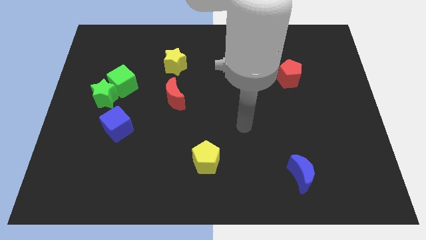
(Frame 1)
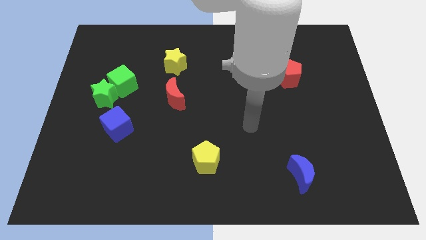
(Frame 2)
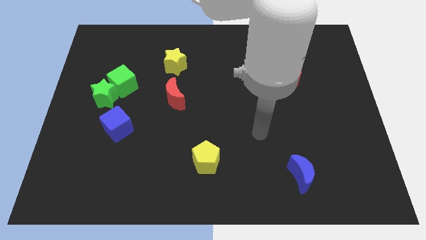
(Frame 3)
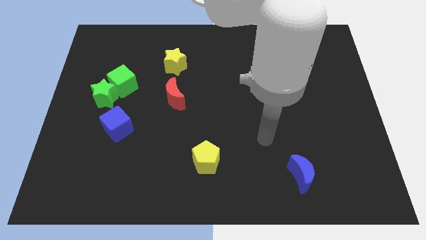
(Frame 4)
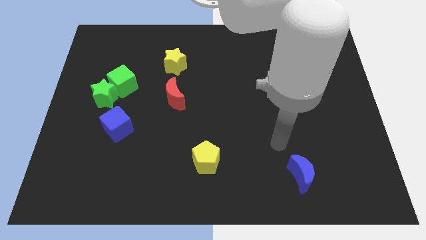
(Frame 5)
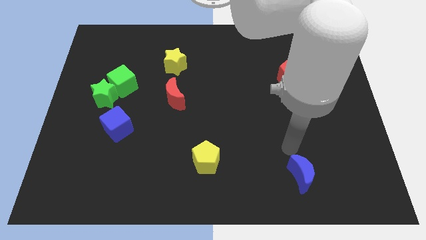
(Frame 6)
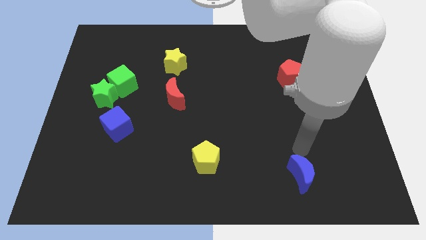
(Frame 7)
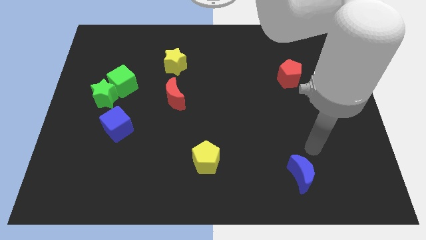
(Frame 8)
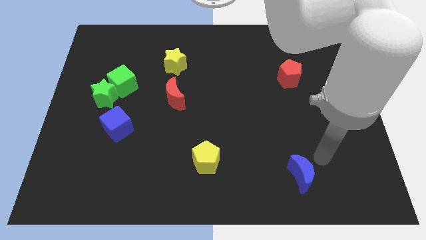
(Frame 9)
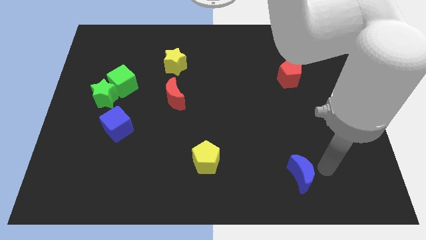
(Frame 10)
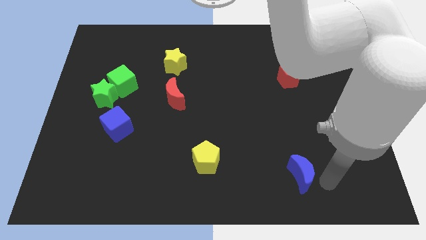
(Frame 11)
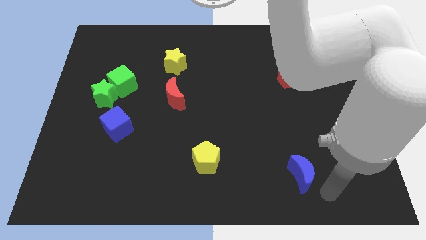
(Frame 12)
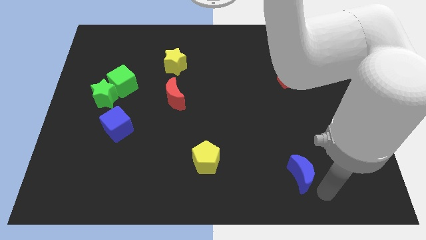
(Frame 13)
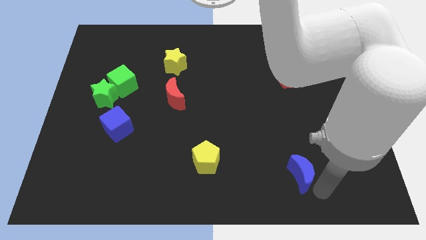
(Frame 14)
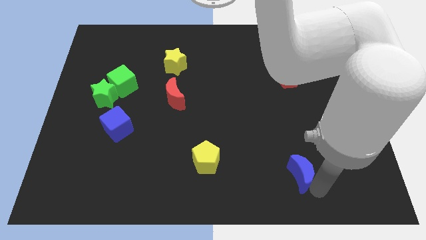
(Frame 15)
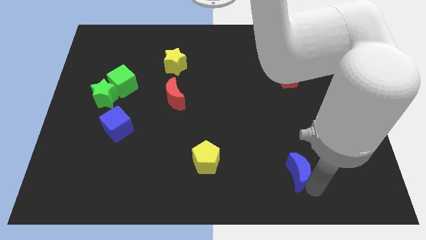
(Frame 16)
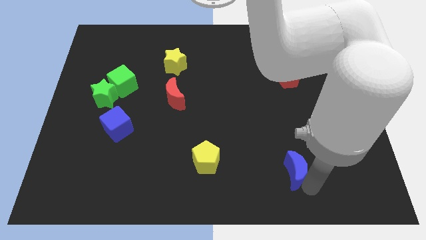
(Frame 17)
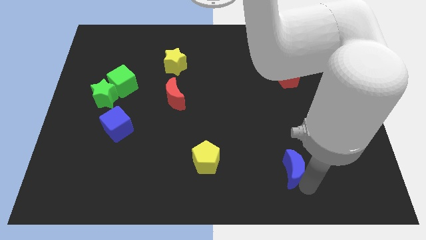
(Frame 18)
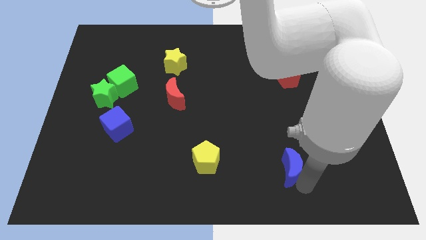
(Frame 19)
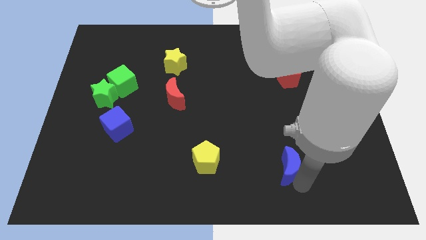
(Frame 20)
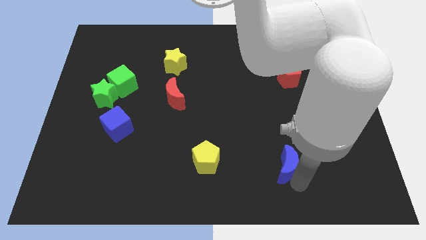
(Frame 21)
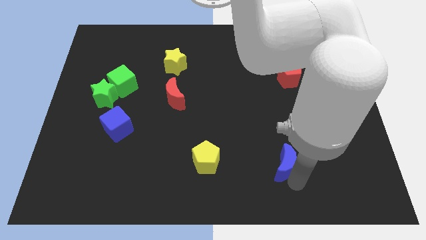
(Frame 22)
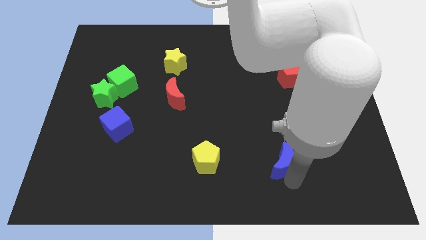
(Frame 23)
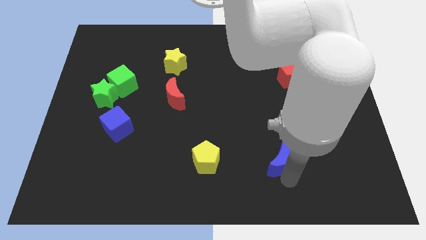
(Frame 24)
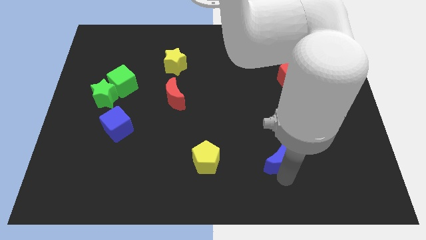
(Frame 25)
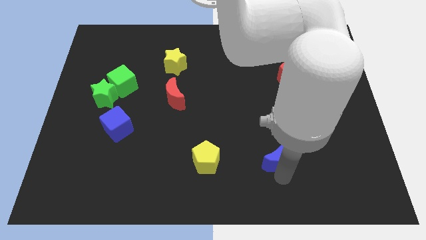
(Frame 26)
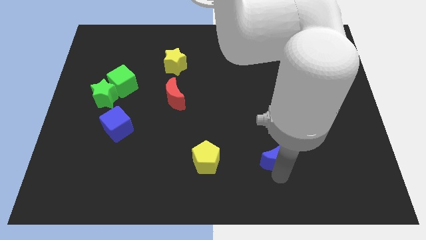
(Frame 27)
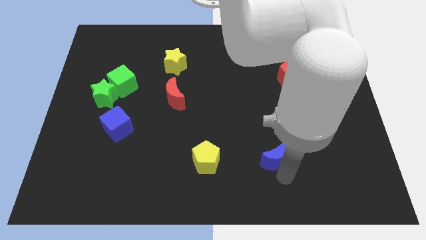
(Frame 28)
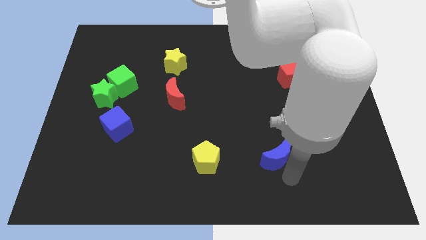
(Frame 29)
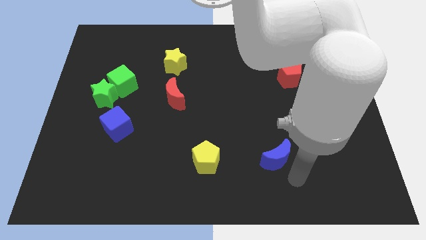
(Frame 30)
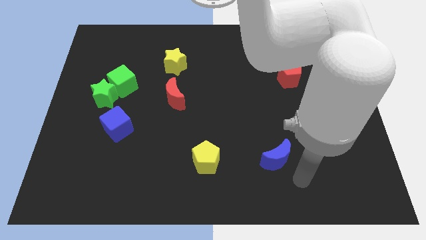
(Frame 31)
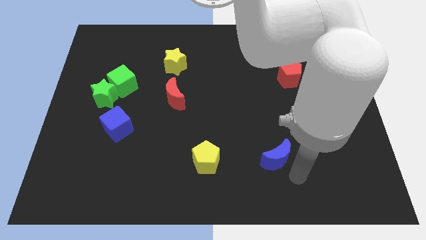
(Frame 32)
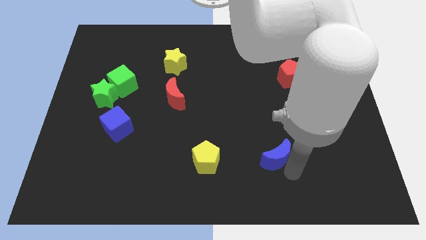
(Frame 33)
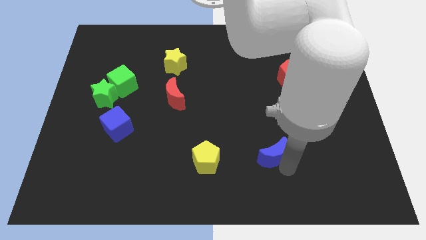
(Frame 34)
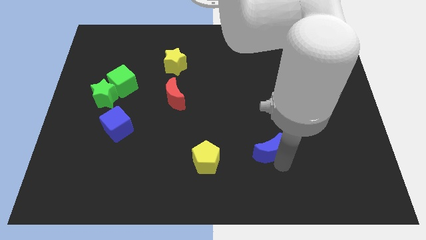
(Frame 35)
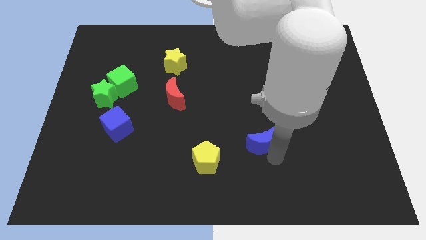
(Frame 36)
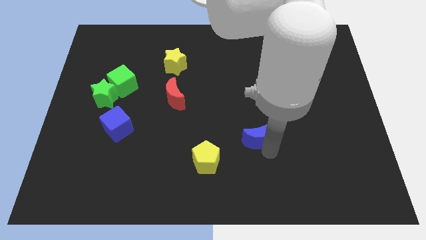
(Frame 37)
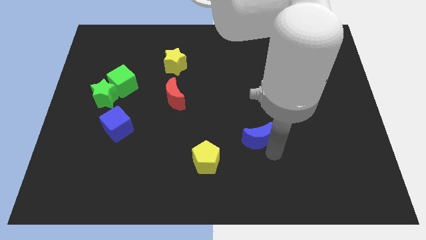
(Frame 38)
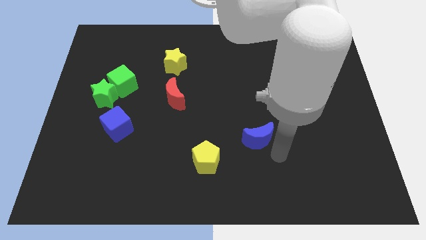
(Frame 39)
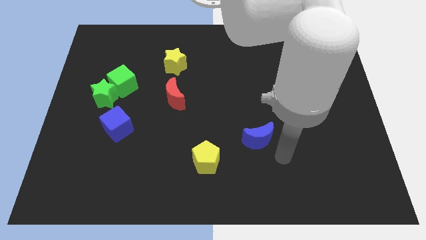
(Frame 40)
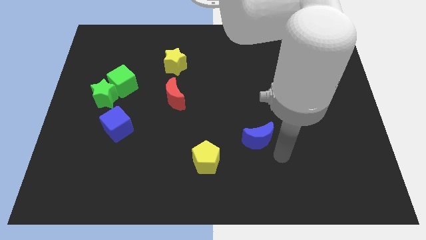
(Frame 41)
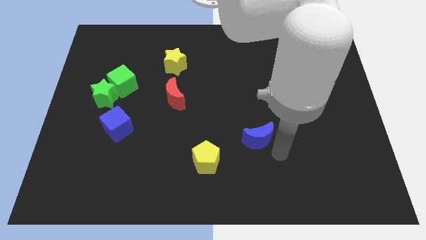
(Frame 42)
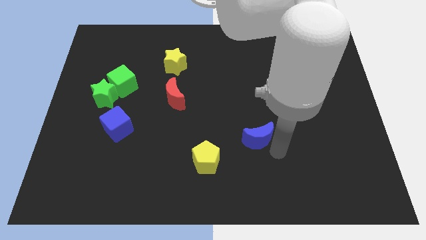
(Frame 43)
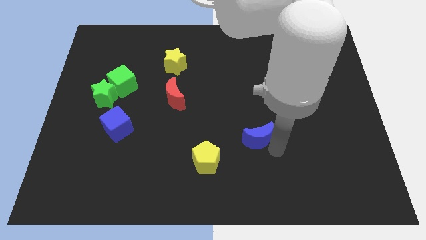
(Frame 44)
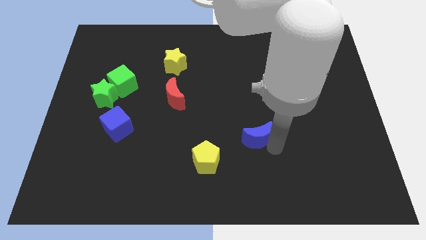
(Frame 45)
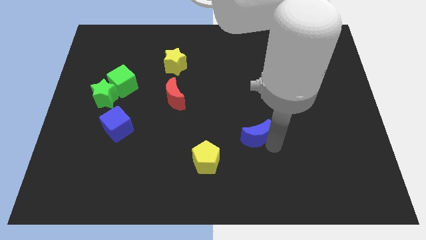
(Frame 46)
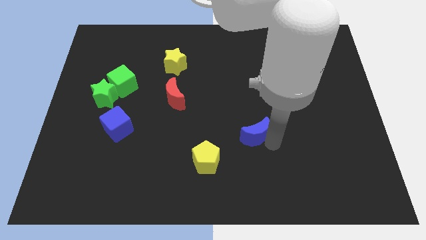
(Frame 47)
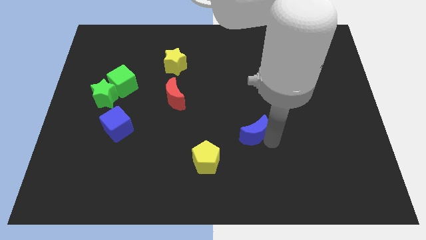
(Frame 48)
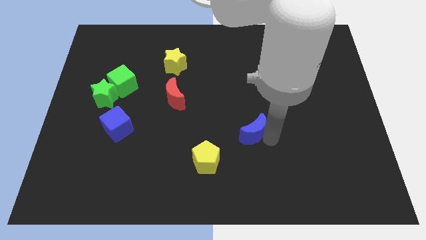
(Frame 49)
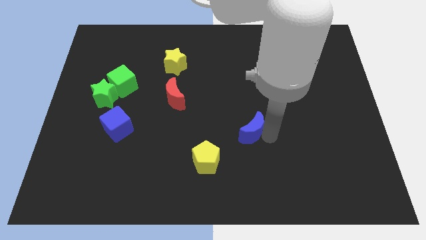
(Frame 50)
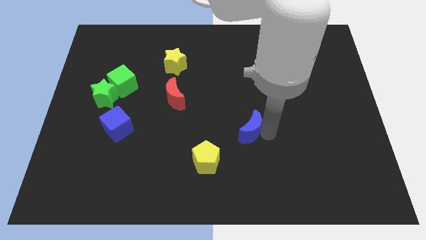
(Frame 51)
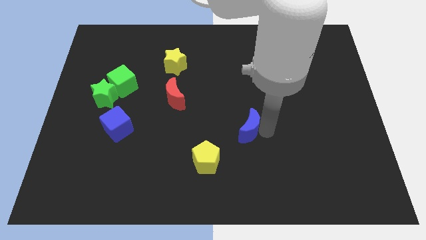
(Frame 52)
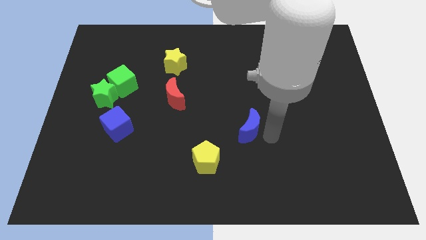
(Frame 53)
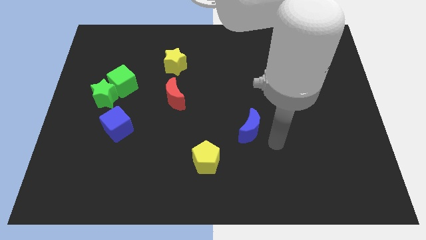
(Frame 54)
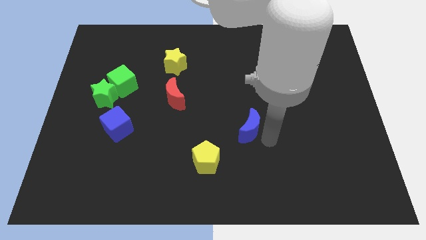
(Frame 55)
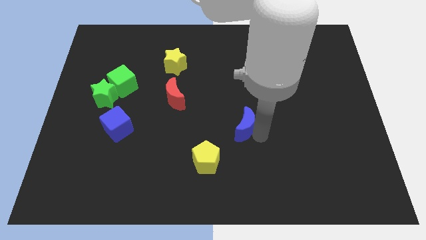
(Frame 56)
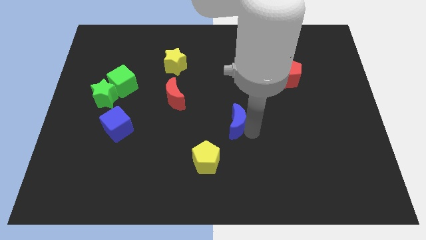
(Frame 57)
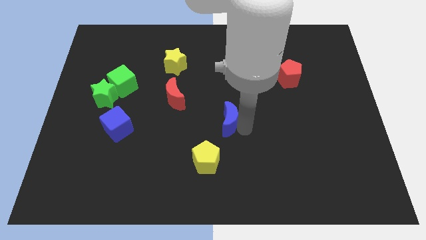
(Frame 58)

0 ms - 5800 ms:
slide the blue moon up and left diagonally

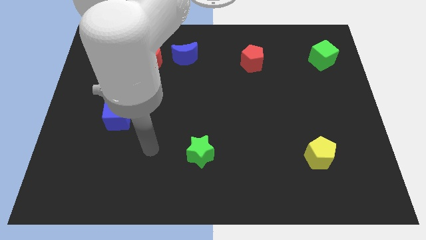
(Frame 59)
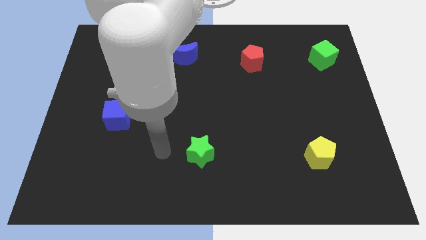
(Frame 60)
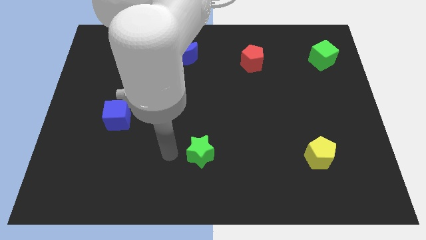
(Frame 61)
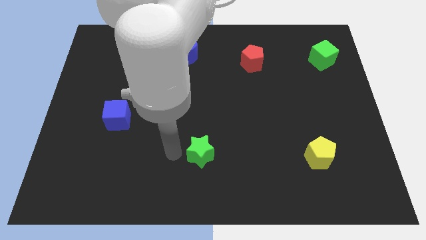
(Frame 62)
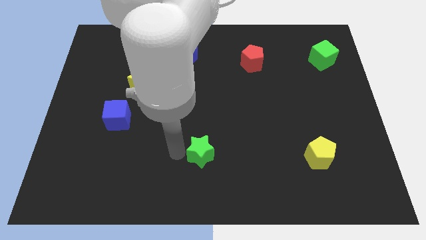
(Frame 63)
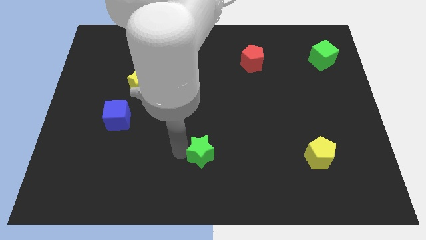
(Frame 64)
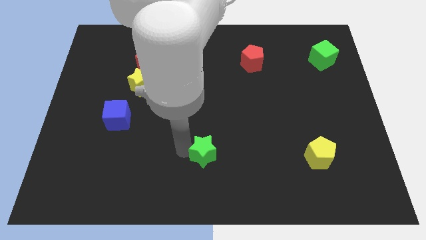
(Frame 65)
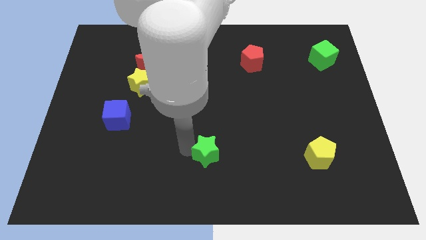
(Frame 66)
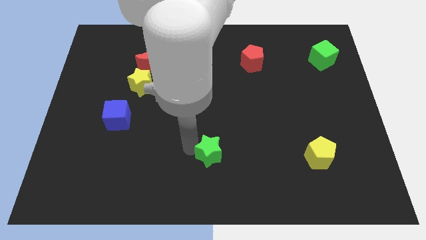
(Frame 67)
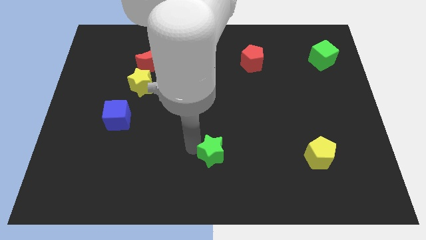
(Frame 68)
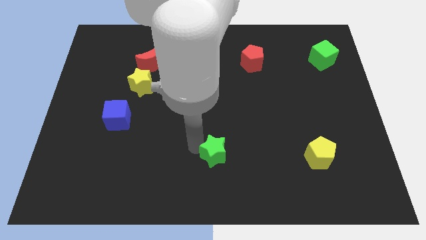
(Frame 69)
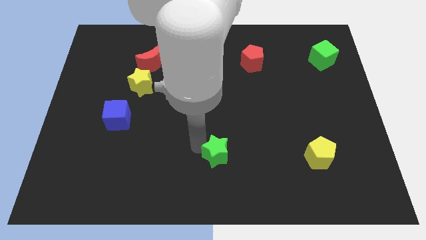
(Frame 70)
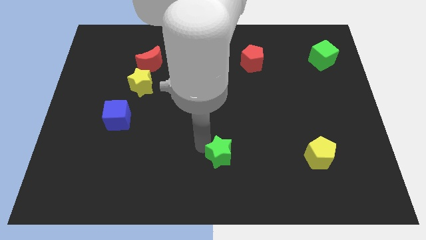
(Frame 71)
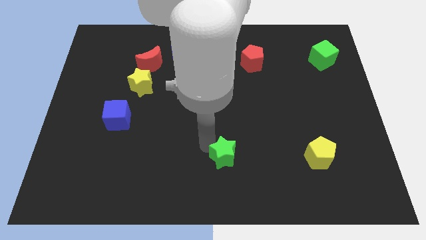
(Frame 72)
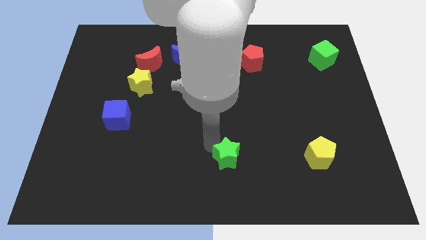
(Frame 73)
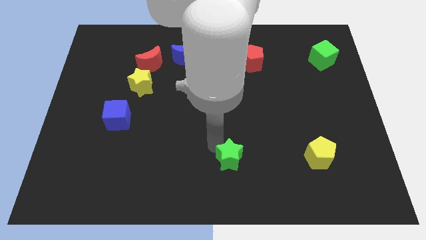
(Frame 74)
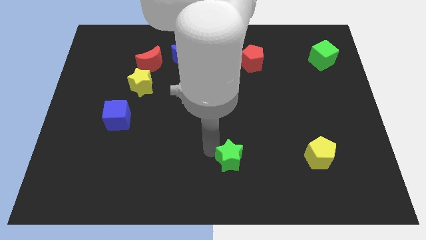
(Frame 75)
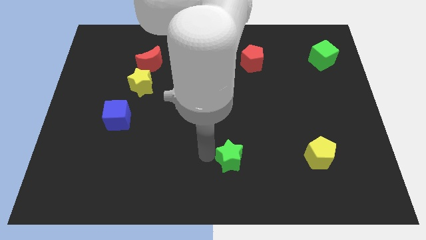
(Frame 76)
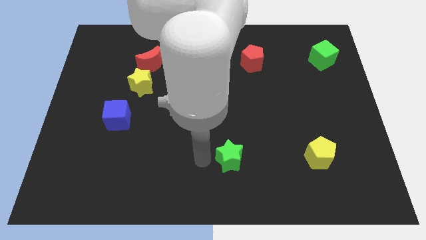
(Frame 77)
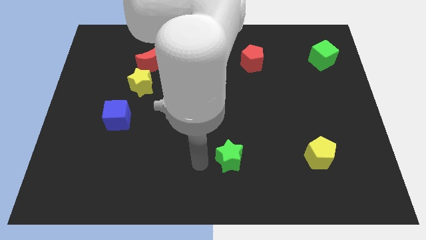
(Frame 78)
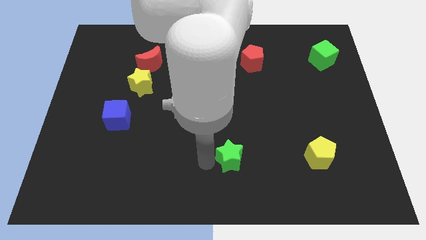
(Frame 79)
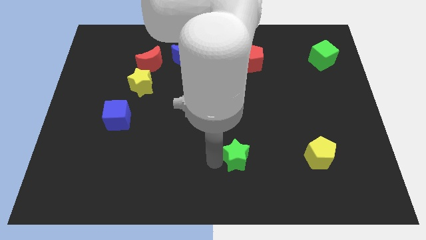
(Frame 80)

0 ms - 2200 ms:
slightly slide the green star right

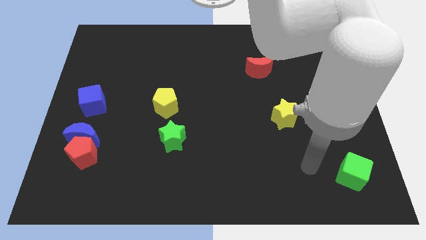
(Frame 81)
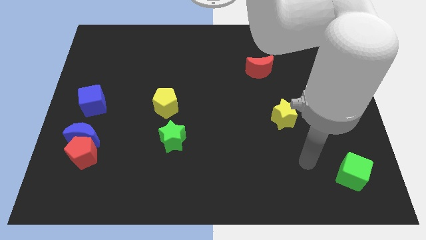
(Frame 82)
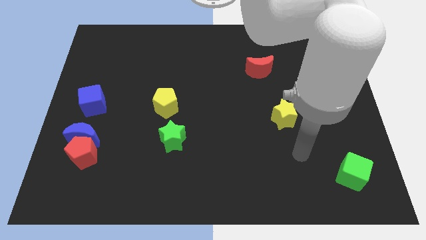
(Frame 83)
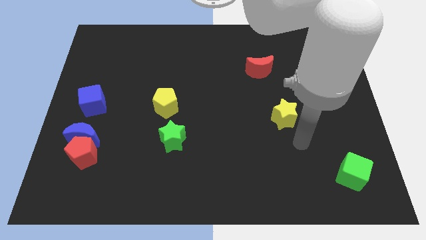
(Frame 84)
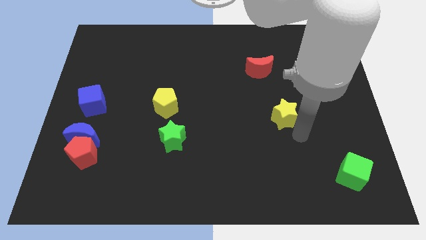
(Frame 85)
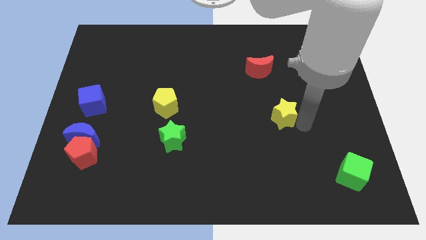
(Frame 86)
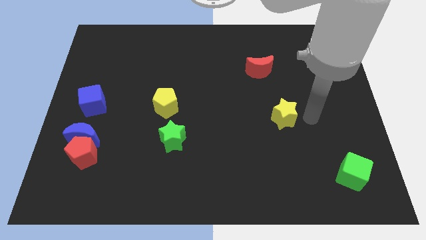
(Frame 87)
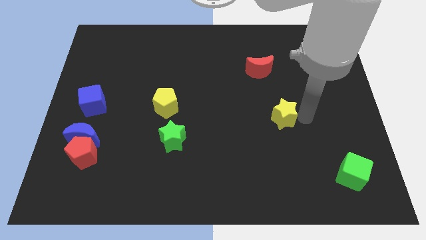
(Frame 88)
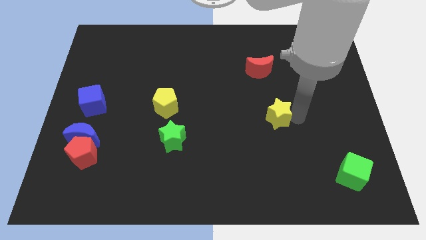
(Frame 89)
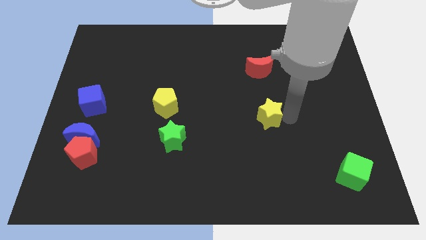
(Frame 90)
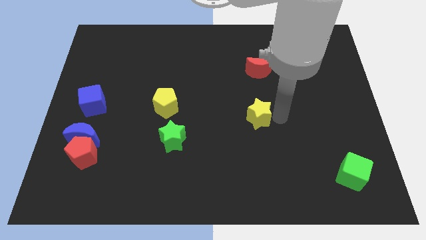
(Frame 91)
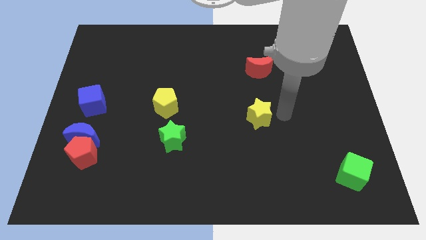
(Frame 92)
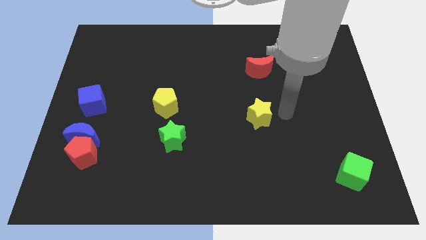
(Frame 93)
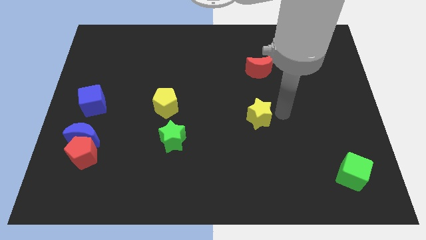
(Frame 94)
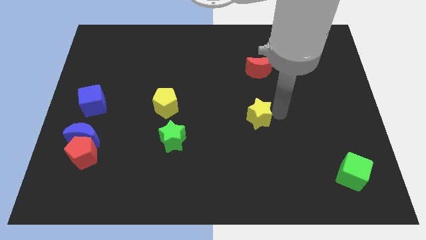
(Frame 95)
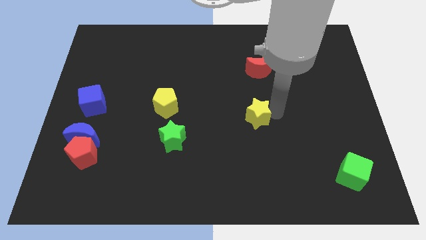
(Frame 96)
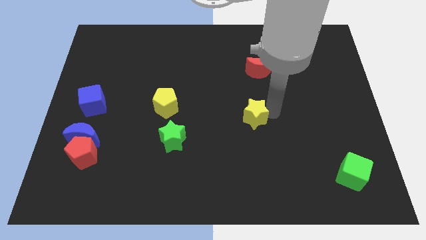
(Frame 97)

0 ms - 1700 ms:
slightly move the yellow star left
